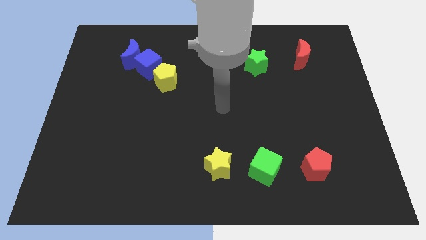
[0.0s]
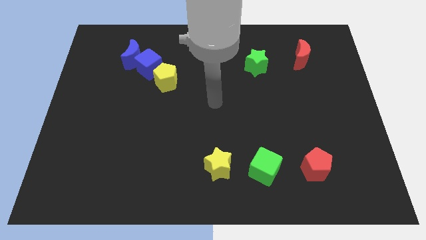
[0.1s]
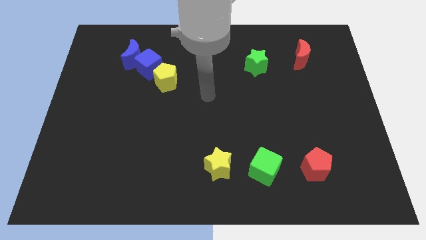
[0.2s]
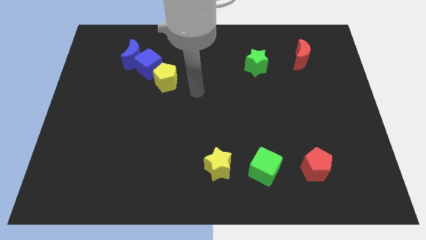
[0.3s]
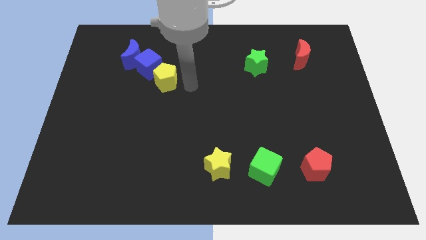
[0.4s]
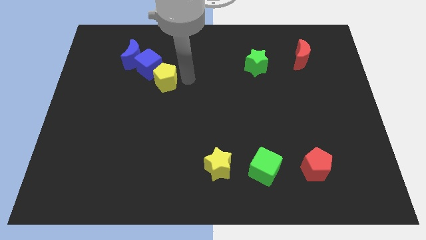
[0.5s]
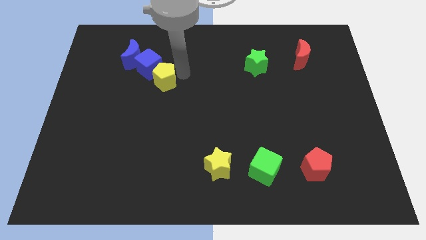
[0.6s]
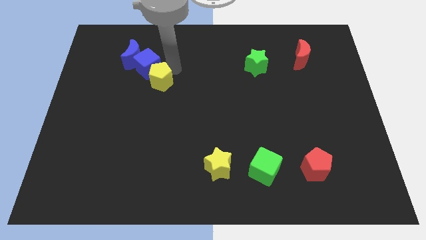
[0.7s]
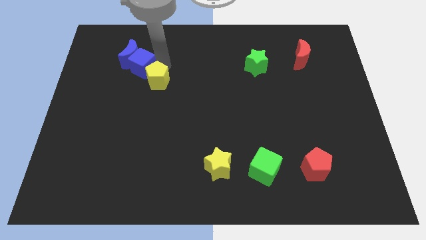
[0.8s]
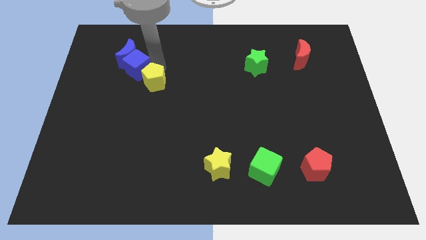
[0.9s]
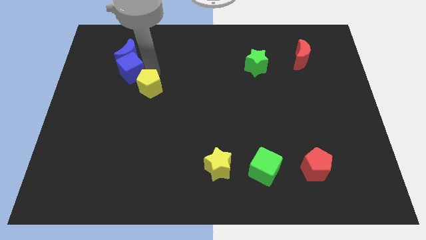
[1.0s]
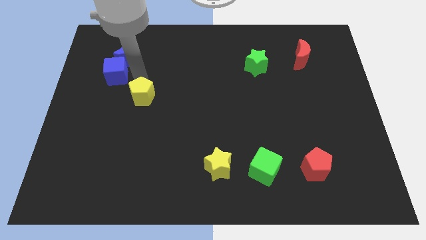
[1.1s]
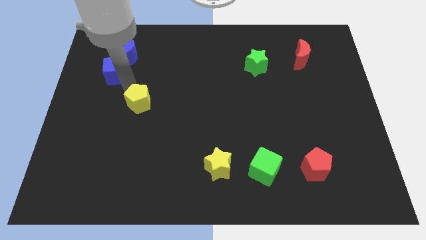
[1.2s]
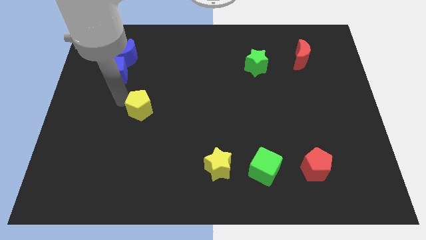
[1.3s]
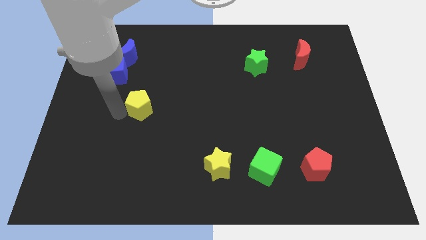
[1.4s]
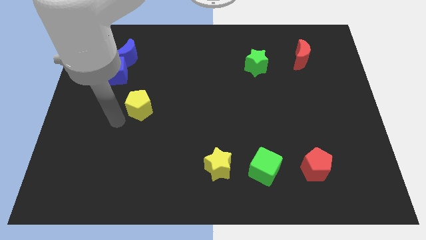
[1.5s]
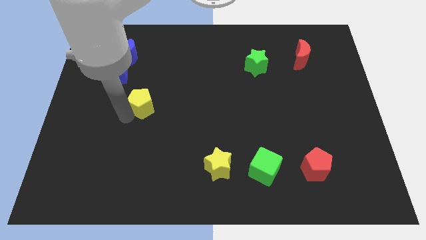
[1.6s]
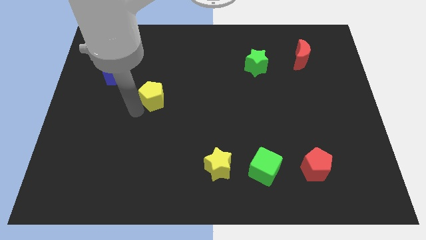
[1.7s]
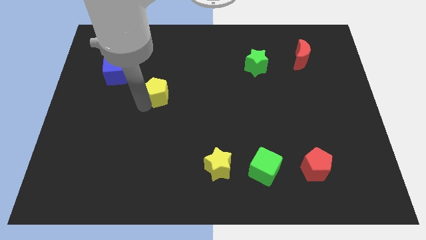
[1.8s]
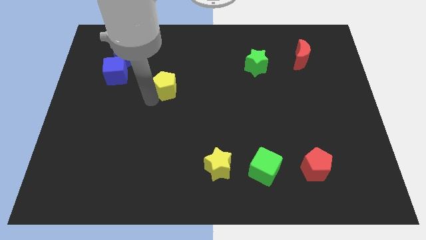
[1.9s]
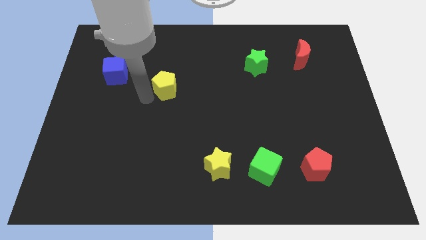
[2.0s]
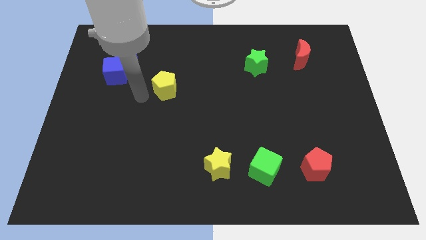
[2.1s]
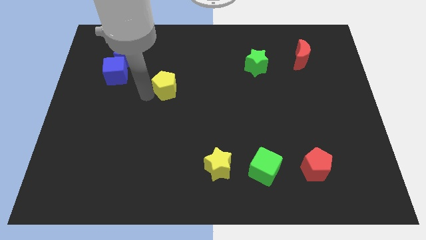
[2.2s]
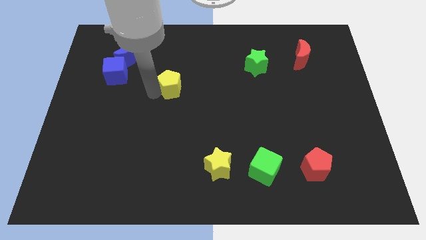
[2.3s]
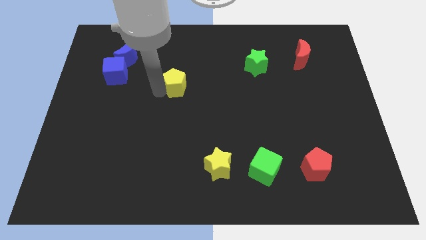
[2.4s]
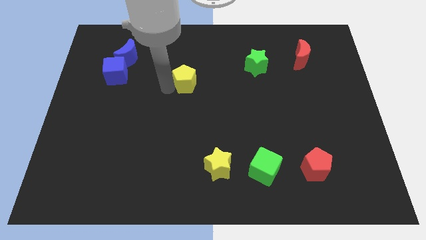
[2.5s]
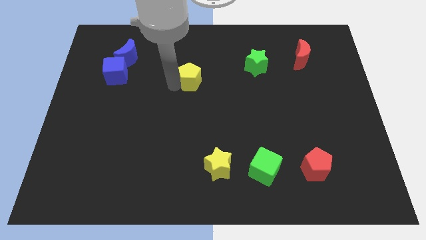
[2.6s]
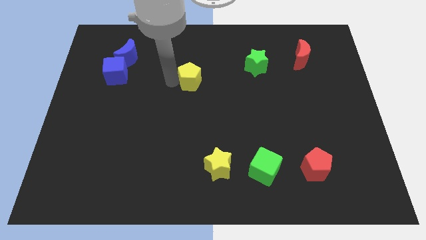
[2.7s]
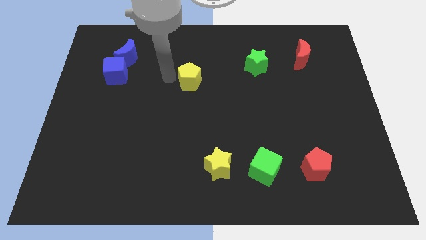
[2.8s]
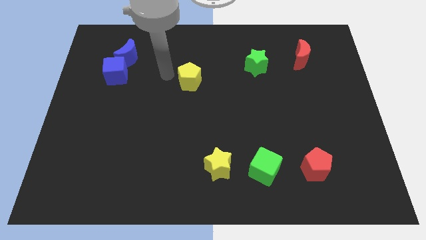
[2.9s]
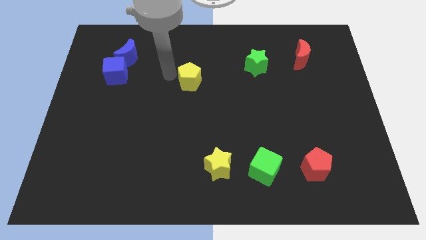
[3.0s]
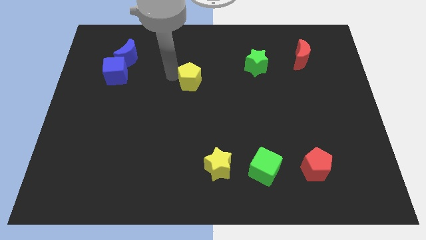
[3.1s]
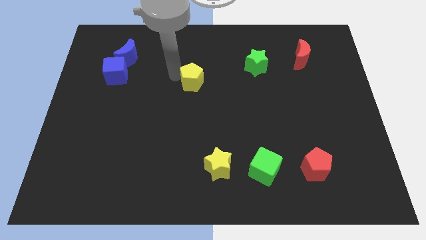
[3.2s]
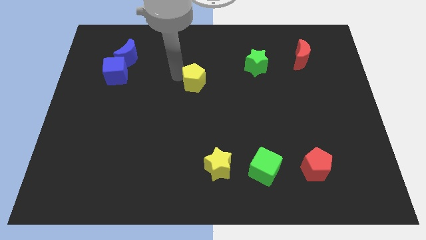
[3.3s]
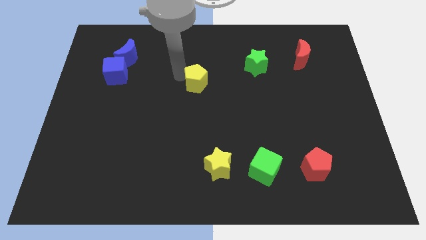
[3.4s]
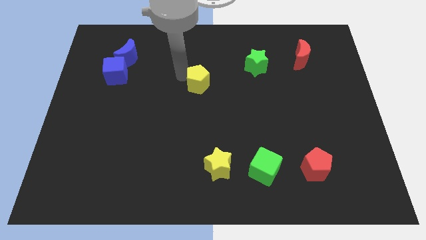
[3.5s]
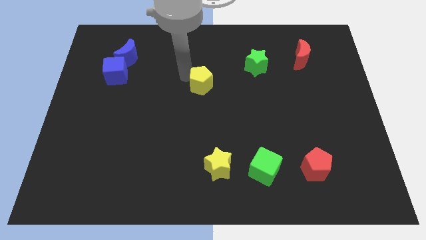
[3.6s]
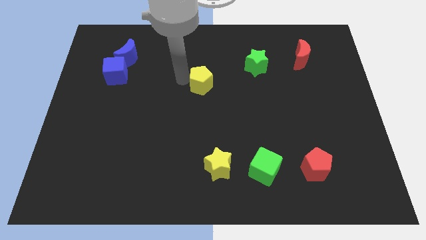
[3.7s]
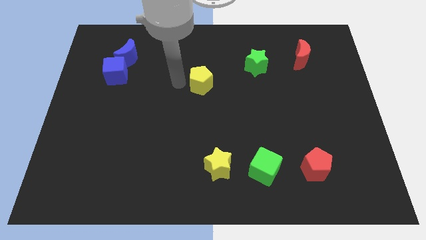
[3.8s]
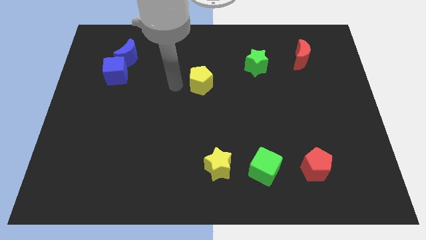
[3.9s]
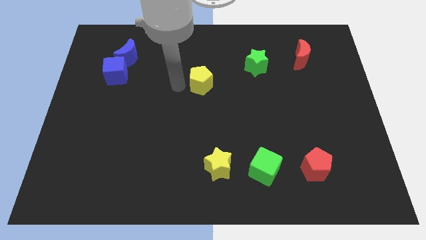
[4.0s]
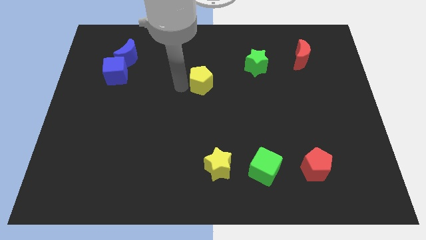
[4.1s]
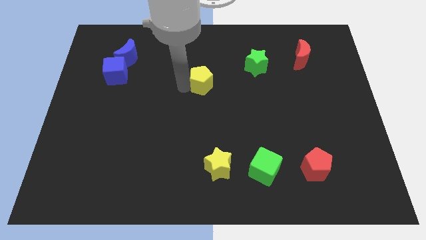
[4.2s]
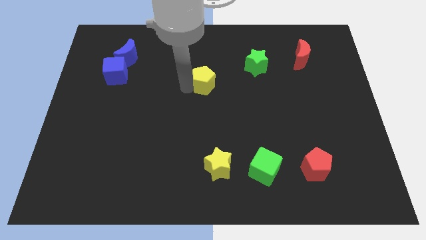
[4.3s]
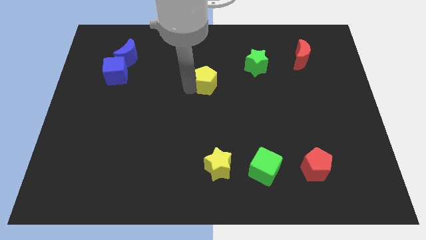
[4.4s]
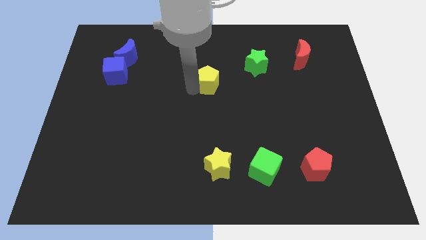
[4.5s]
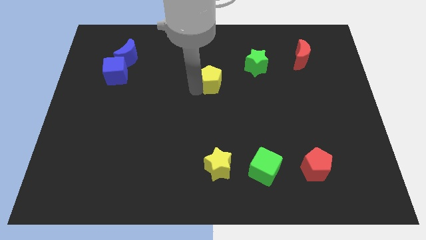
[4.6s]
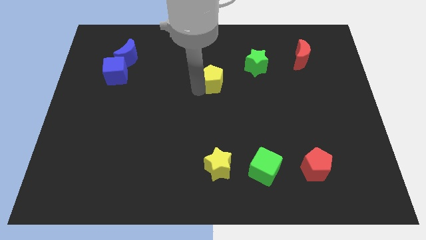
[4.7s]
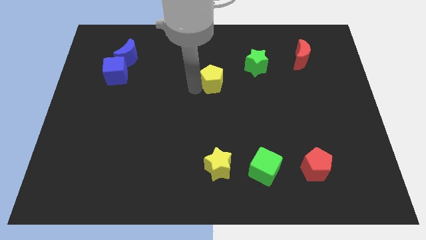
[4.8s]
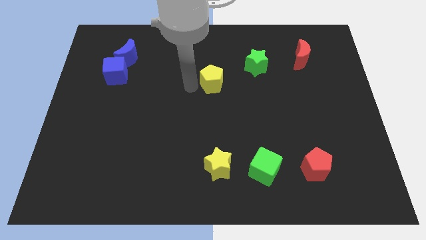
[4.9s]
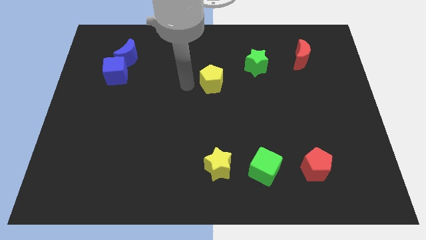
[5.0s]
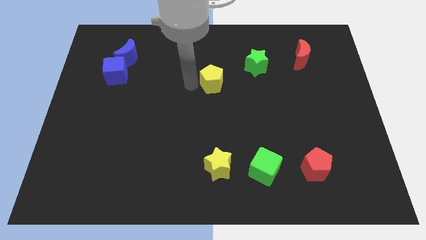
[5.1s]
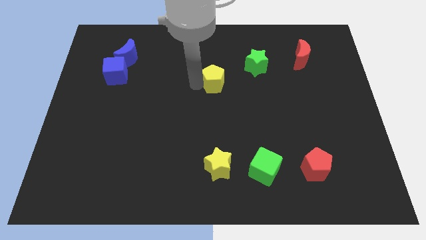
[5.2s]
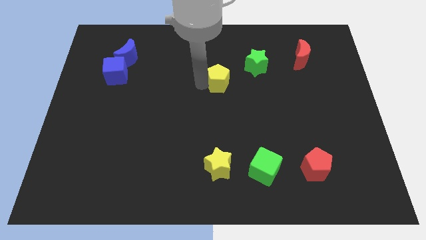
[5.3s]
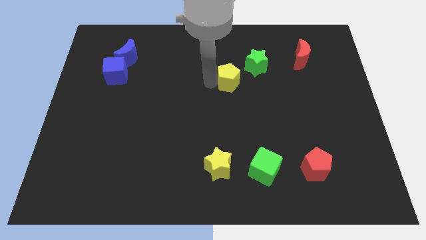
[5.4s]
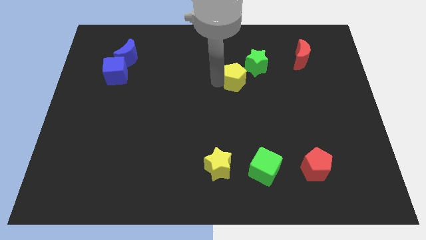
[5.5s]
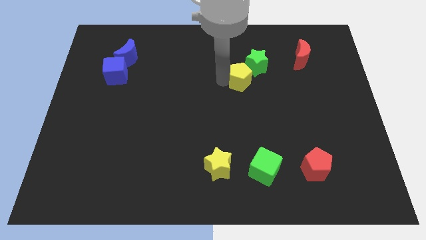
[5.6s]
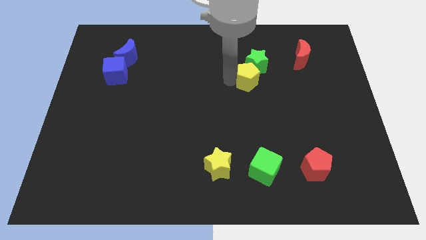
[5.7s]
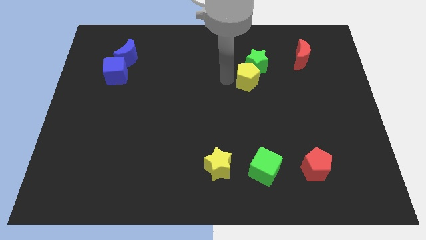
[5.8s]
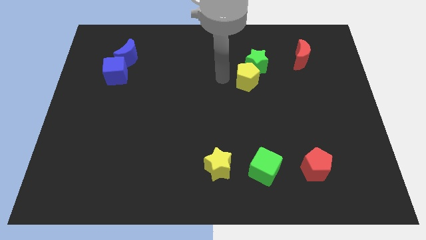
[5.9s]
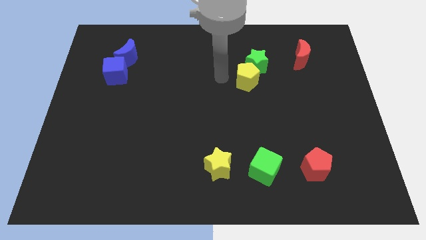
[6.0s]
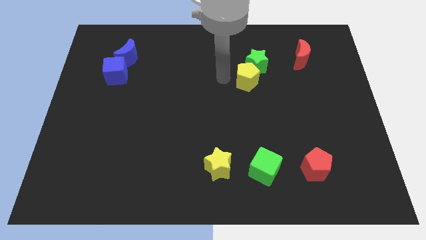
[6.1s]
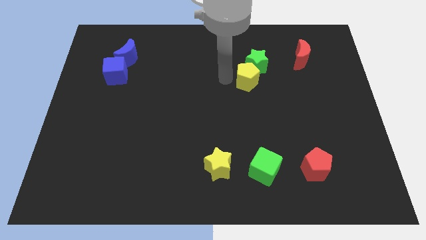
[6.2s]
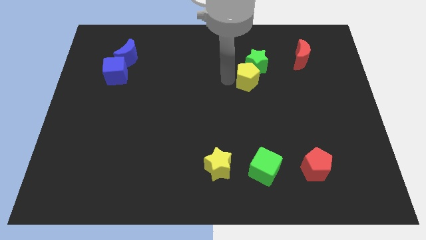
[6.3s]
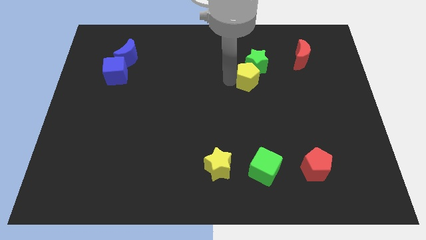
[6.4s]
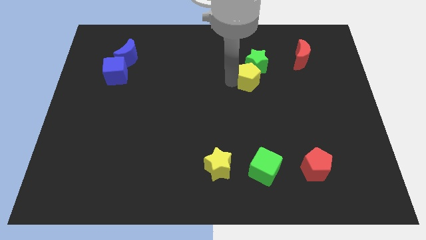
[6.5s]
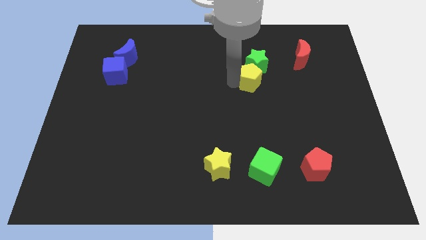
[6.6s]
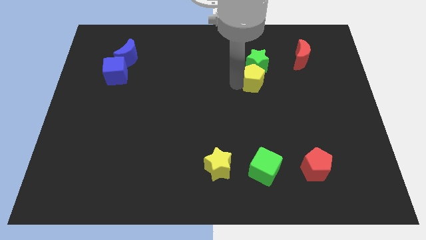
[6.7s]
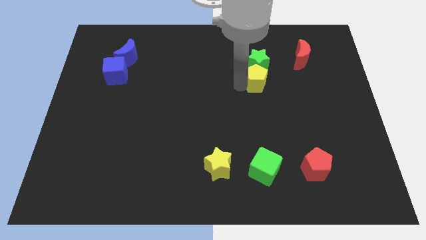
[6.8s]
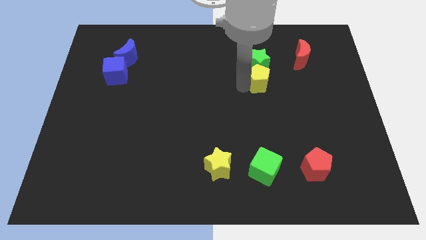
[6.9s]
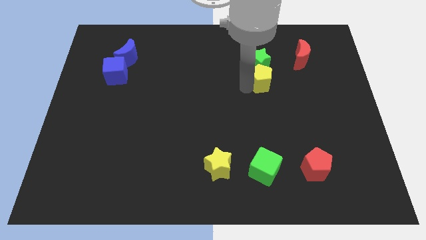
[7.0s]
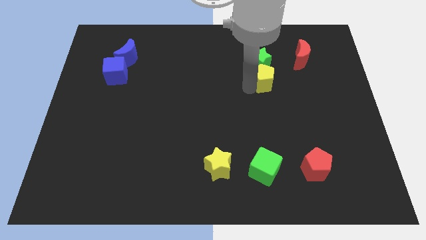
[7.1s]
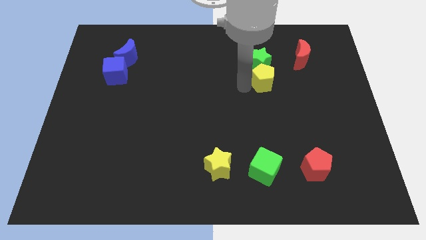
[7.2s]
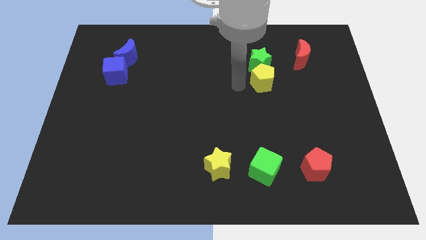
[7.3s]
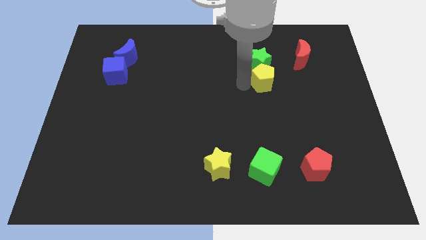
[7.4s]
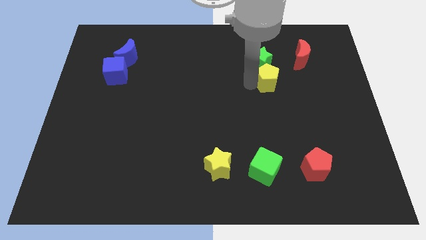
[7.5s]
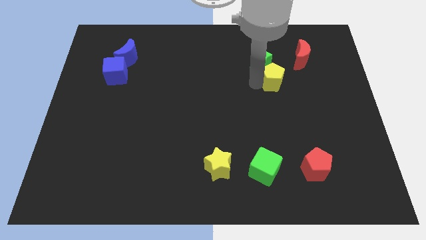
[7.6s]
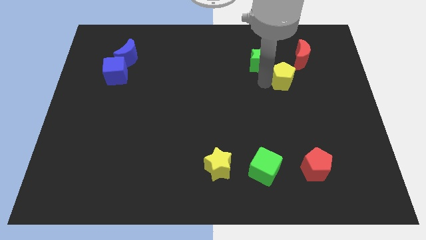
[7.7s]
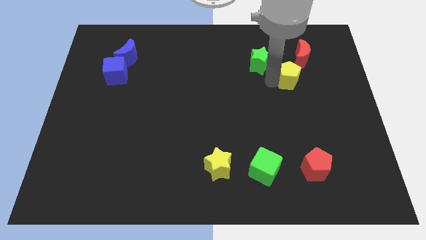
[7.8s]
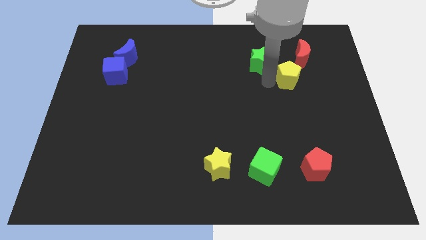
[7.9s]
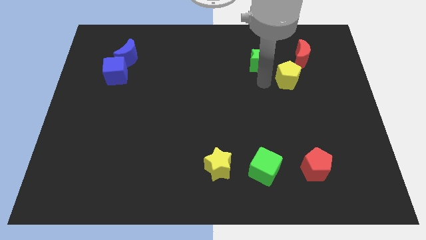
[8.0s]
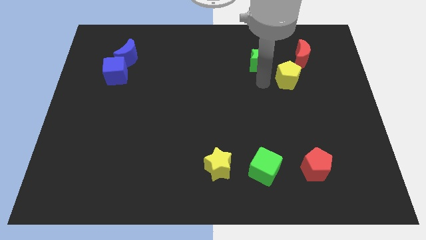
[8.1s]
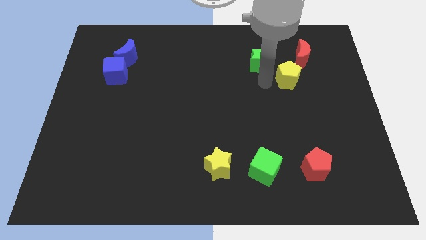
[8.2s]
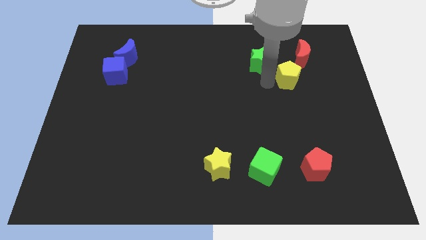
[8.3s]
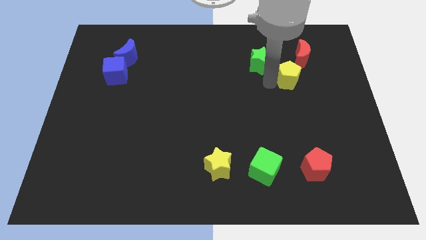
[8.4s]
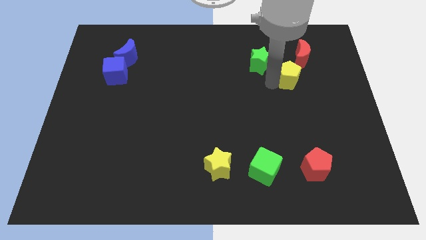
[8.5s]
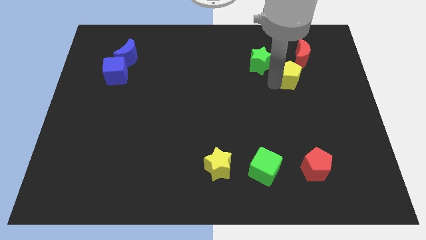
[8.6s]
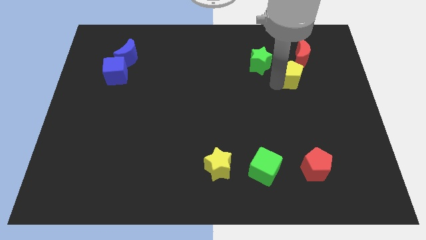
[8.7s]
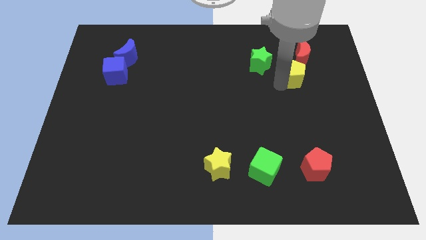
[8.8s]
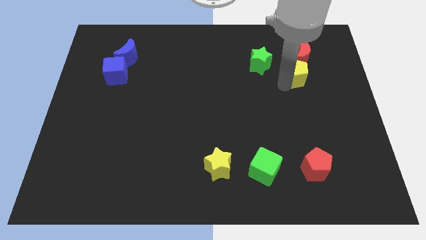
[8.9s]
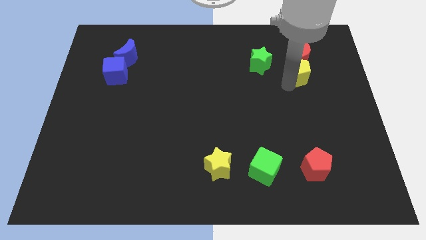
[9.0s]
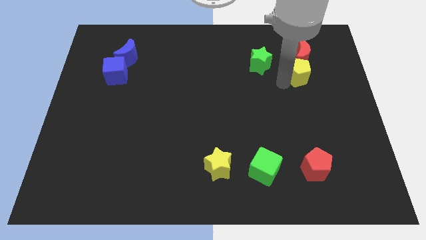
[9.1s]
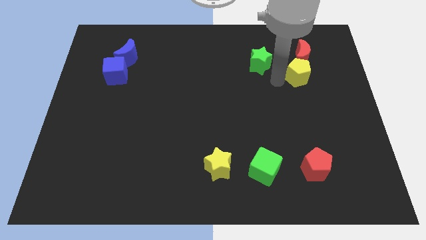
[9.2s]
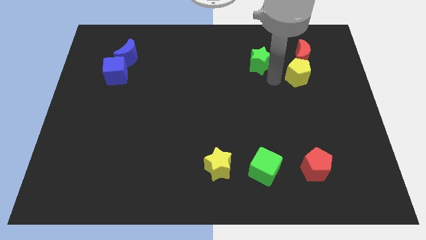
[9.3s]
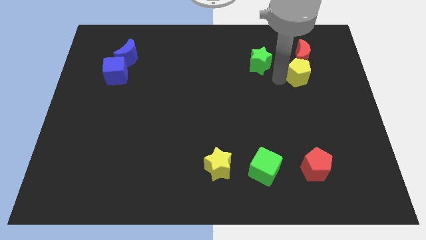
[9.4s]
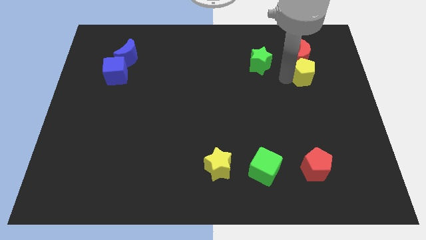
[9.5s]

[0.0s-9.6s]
put the yellow pentagon to the bottom right of the red moon
